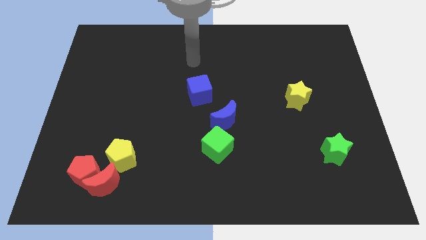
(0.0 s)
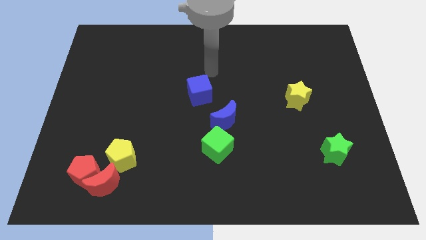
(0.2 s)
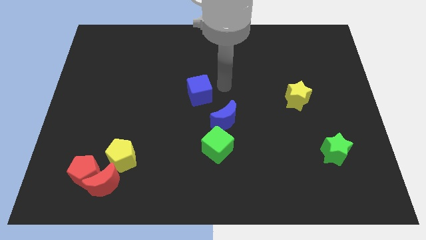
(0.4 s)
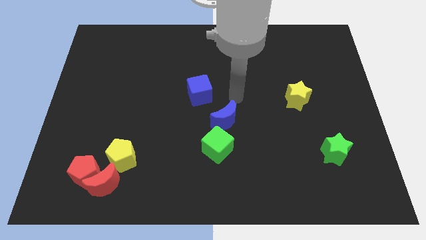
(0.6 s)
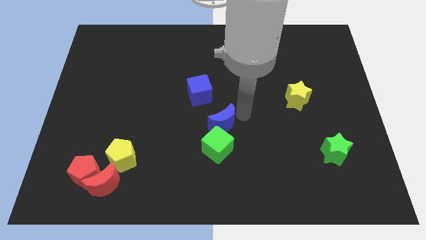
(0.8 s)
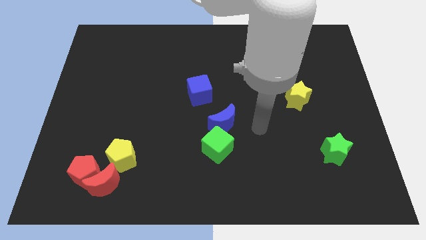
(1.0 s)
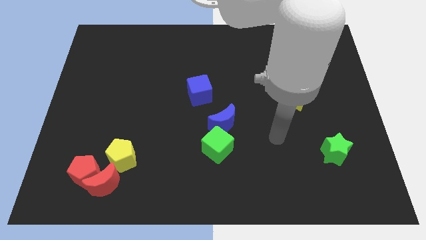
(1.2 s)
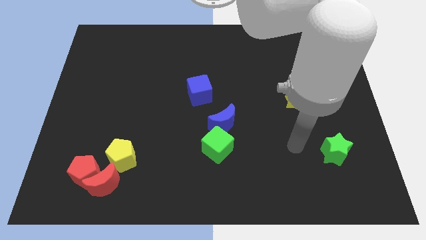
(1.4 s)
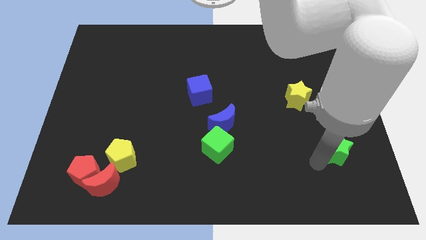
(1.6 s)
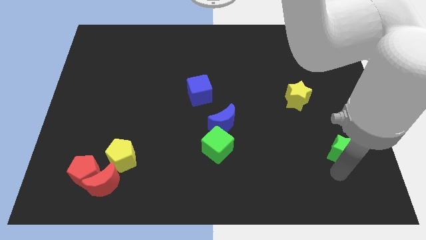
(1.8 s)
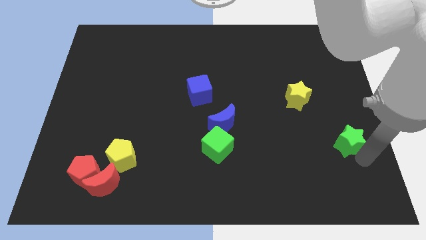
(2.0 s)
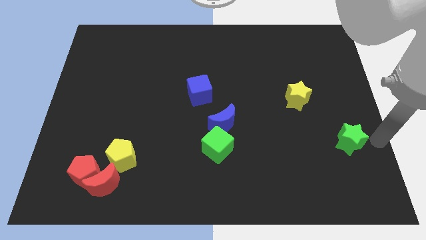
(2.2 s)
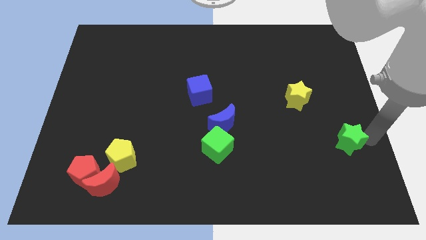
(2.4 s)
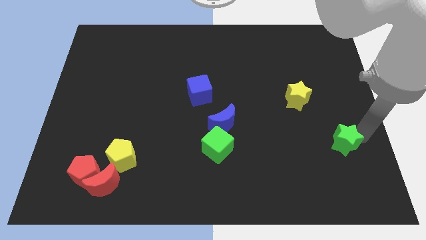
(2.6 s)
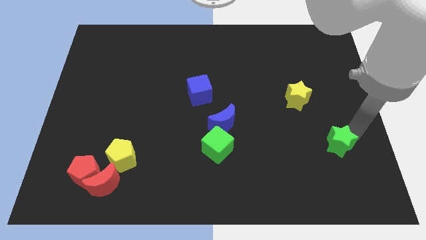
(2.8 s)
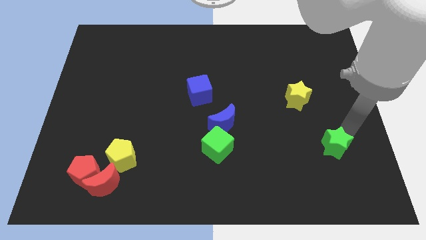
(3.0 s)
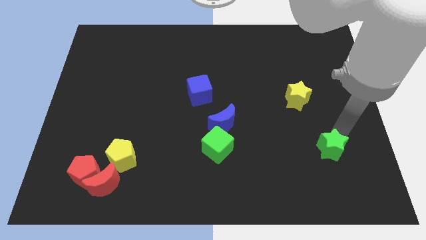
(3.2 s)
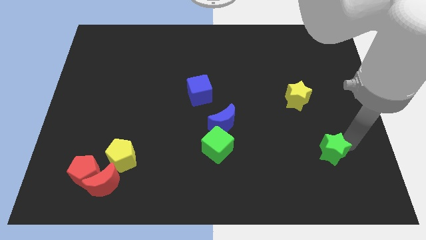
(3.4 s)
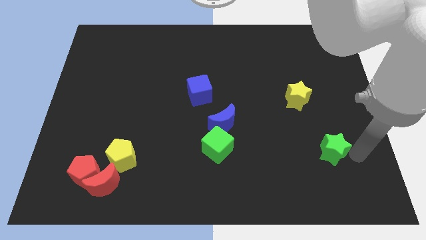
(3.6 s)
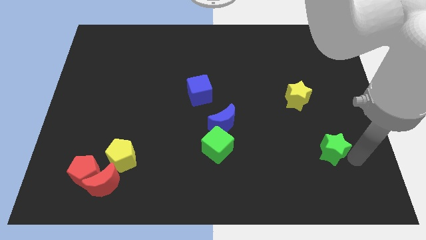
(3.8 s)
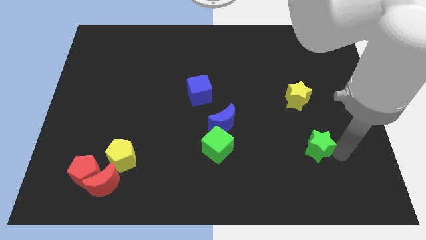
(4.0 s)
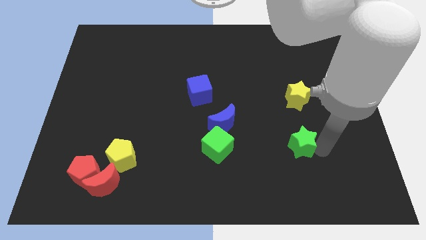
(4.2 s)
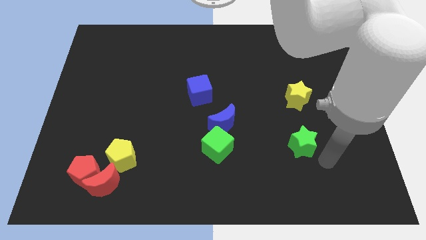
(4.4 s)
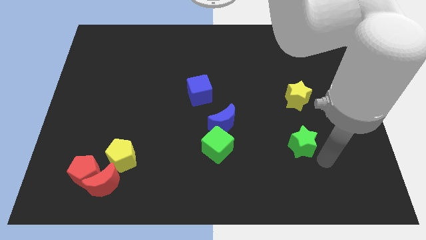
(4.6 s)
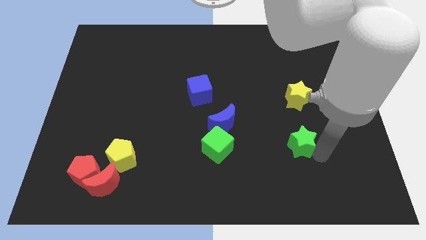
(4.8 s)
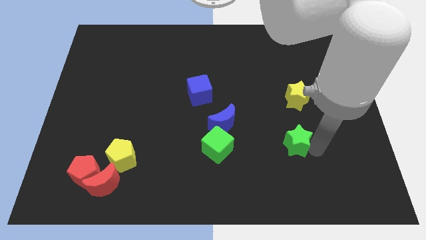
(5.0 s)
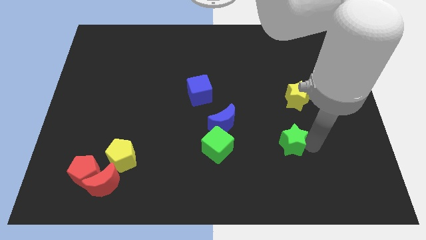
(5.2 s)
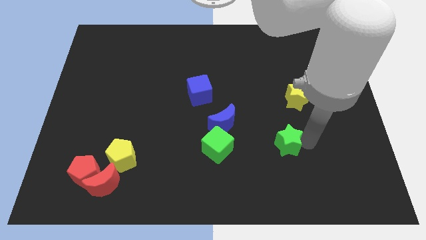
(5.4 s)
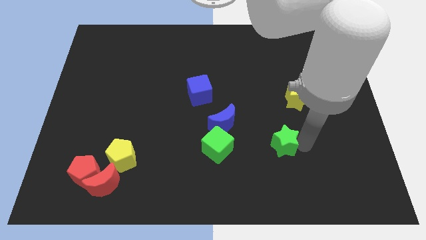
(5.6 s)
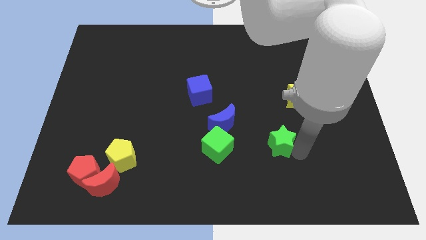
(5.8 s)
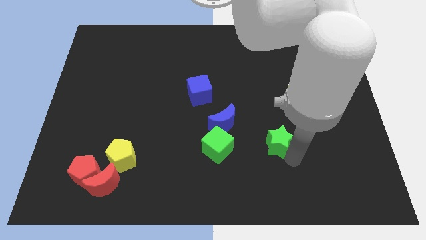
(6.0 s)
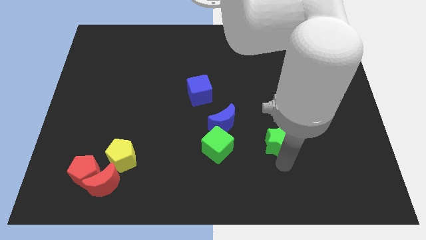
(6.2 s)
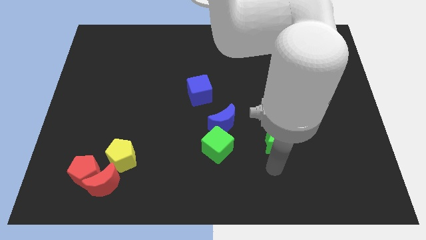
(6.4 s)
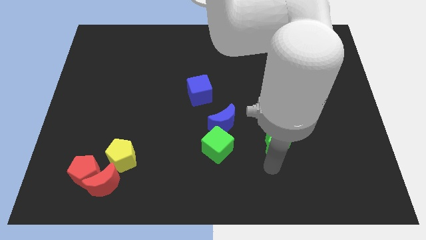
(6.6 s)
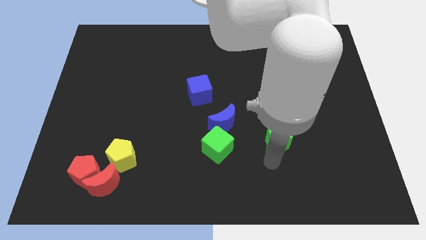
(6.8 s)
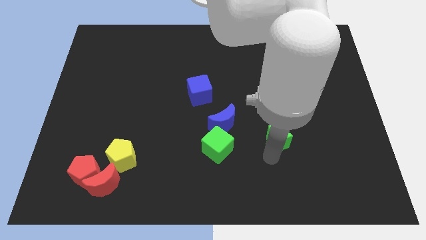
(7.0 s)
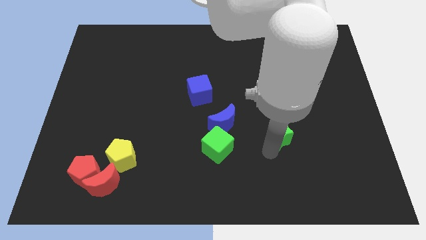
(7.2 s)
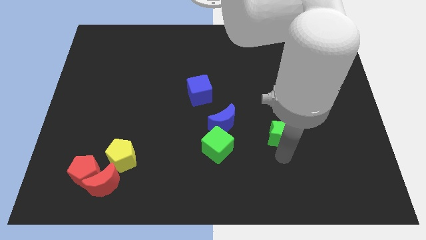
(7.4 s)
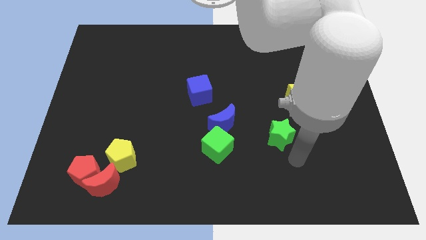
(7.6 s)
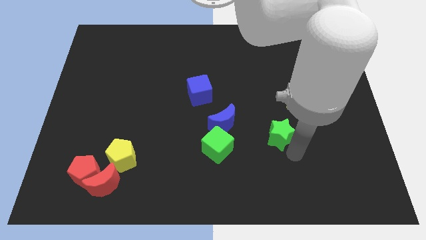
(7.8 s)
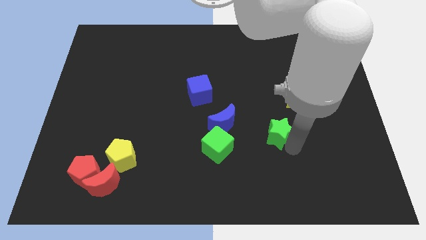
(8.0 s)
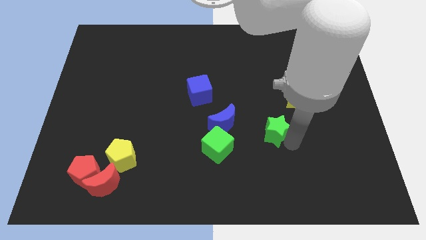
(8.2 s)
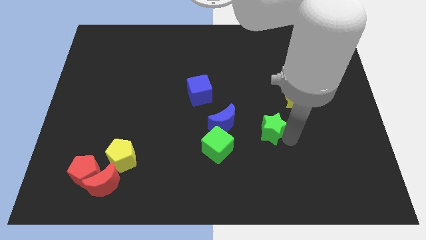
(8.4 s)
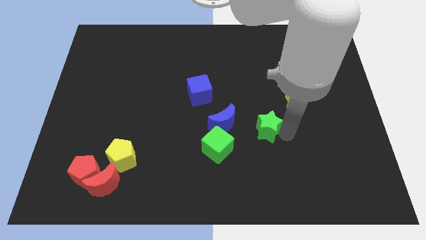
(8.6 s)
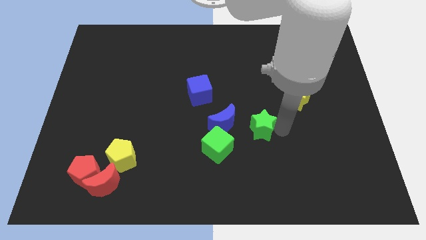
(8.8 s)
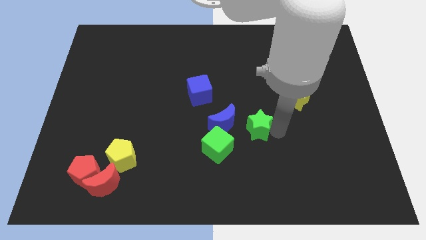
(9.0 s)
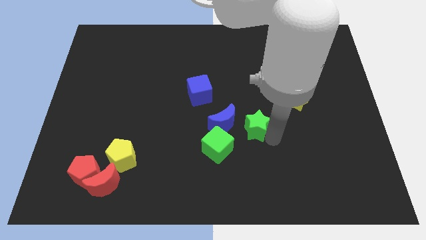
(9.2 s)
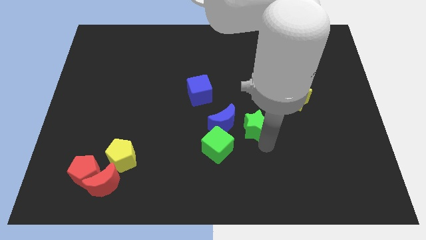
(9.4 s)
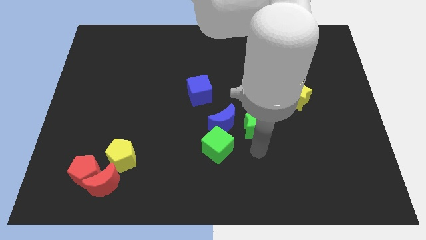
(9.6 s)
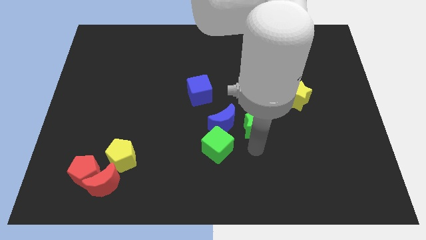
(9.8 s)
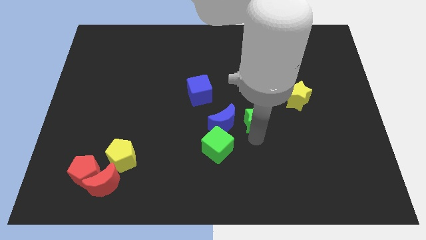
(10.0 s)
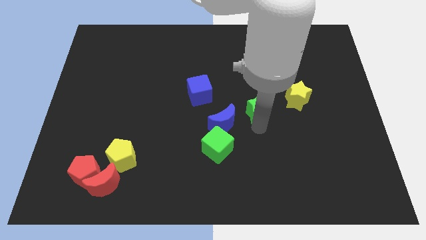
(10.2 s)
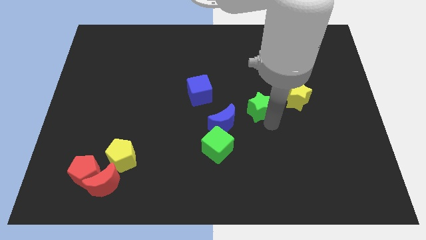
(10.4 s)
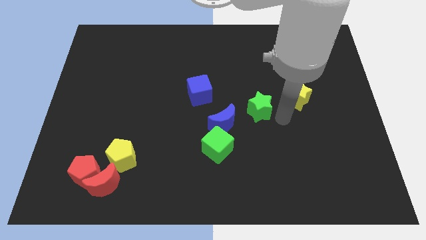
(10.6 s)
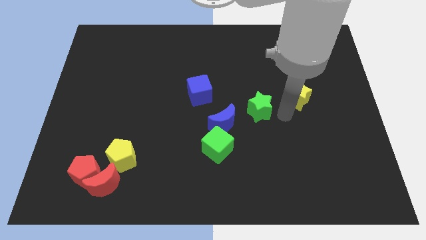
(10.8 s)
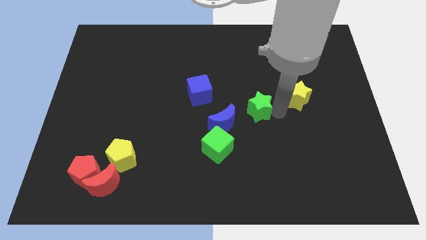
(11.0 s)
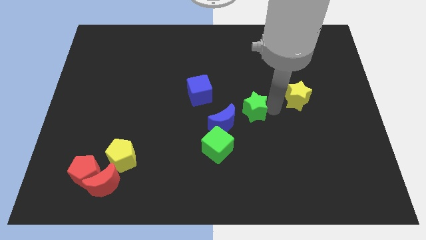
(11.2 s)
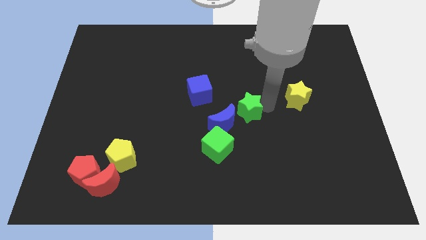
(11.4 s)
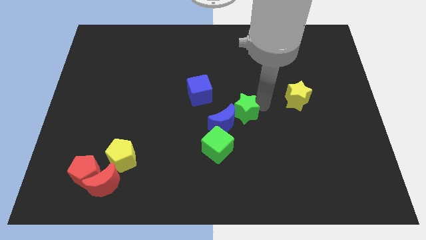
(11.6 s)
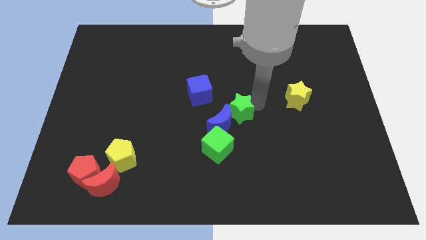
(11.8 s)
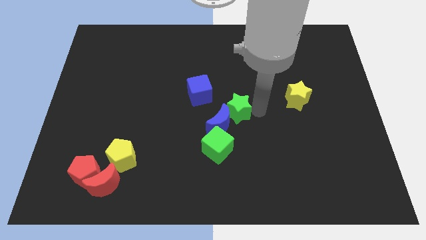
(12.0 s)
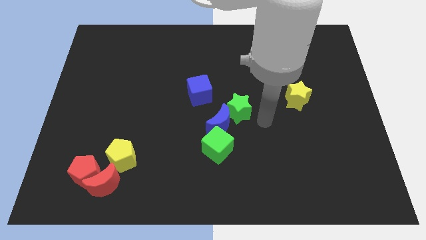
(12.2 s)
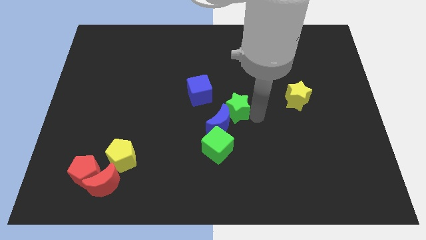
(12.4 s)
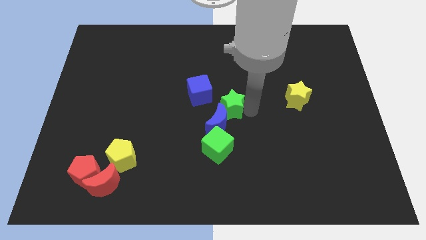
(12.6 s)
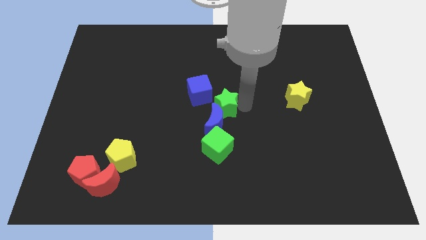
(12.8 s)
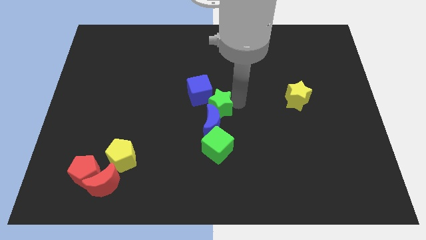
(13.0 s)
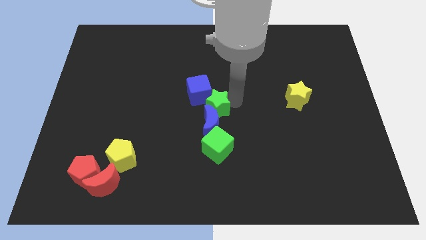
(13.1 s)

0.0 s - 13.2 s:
put the green star towards the blue cube
